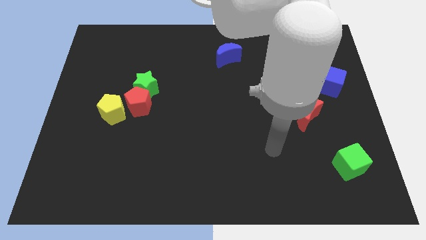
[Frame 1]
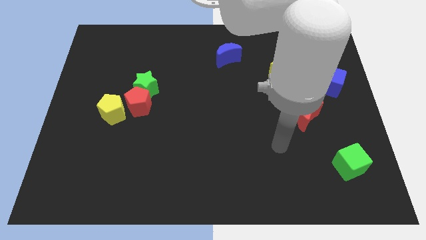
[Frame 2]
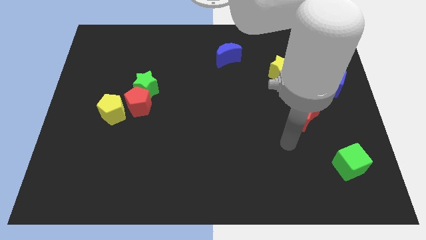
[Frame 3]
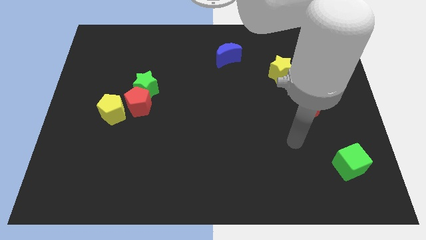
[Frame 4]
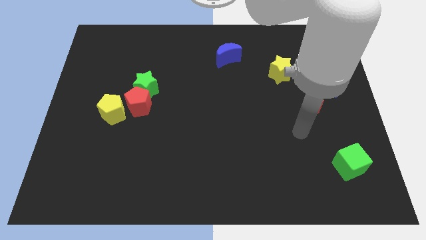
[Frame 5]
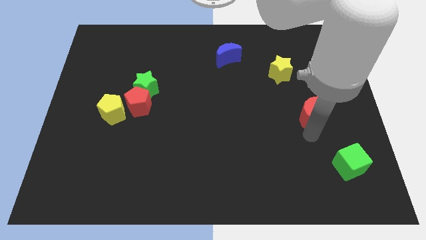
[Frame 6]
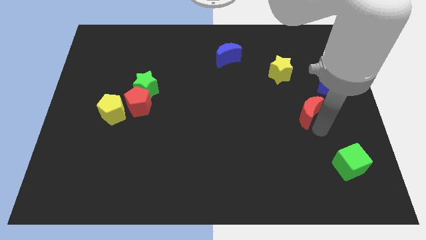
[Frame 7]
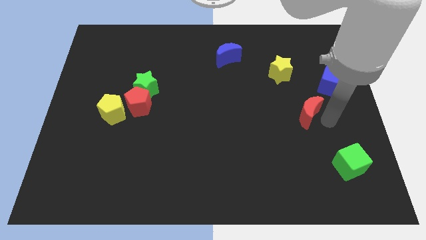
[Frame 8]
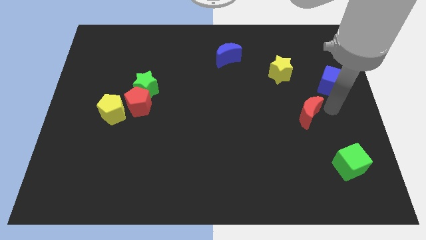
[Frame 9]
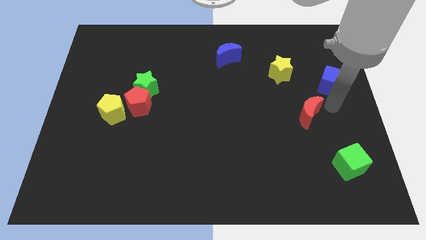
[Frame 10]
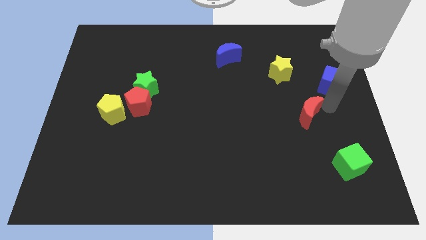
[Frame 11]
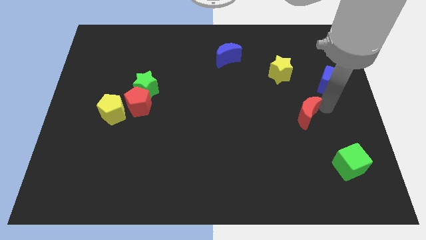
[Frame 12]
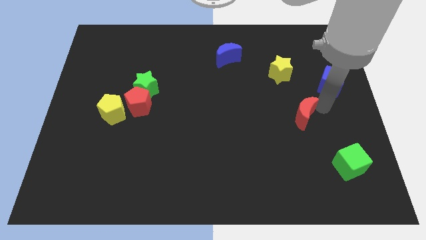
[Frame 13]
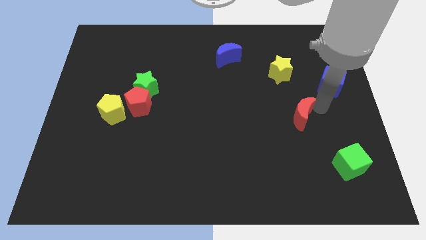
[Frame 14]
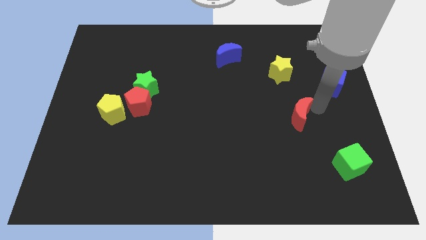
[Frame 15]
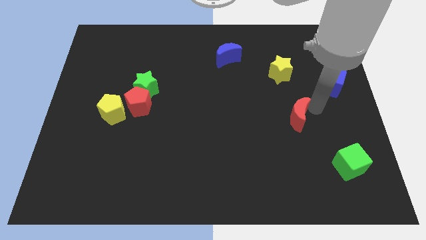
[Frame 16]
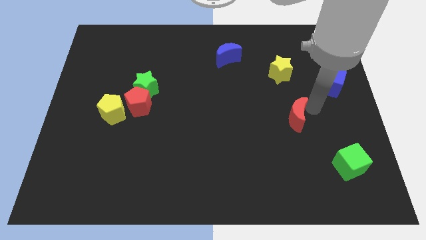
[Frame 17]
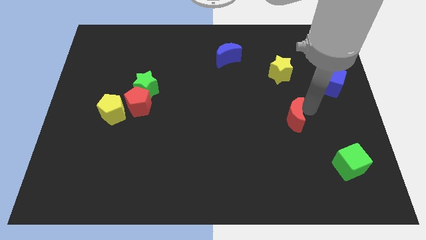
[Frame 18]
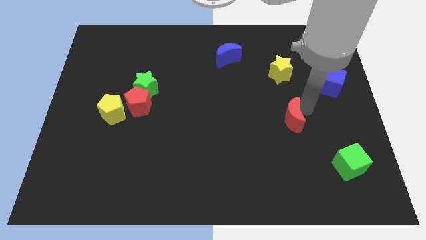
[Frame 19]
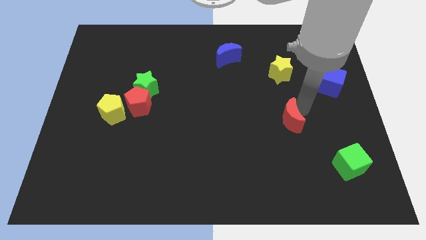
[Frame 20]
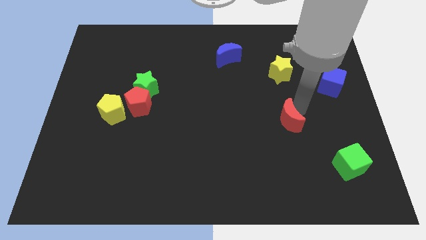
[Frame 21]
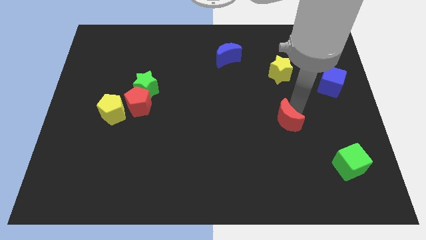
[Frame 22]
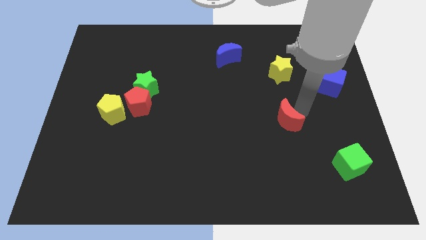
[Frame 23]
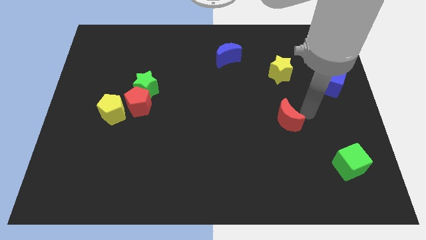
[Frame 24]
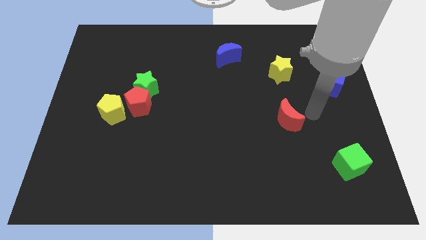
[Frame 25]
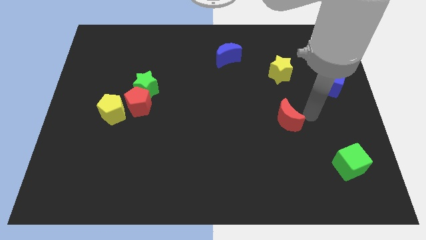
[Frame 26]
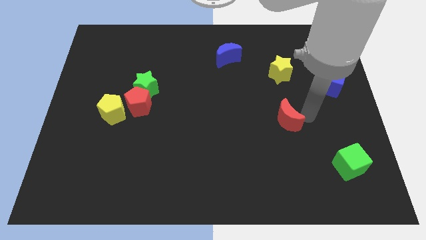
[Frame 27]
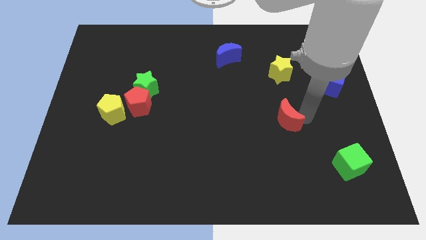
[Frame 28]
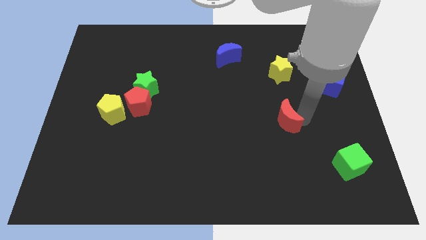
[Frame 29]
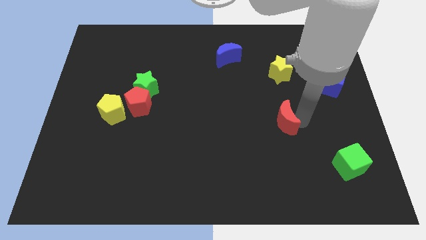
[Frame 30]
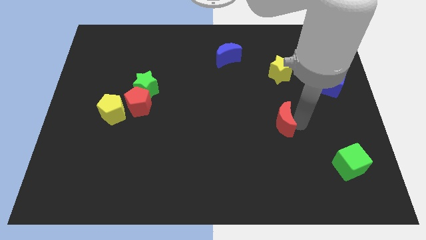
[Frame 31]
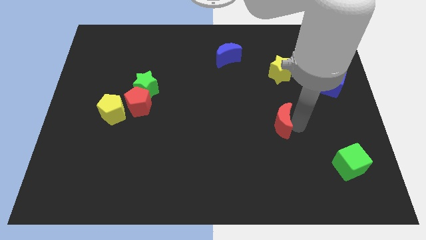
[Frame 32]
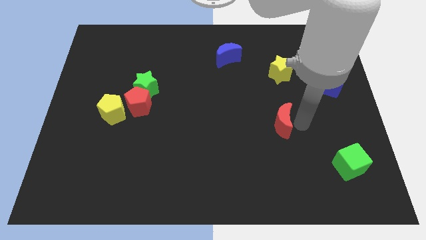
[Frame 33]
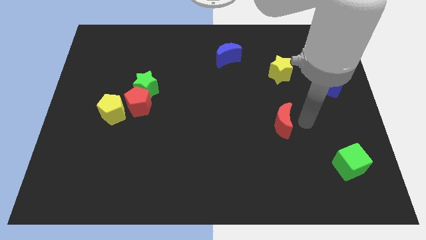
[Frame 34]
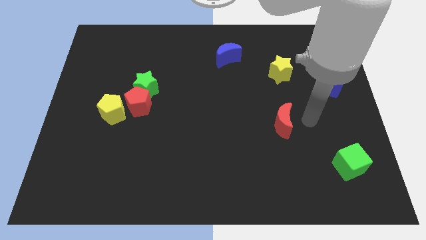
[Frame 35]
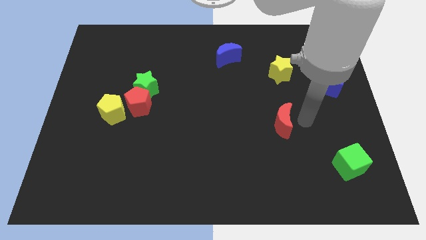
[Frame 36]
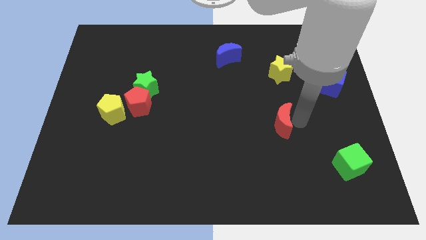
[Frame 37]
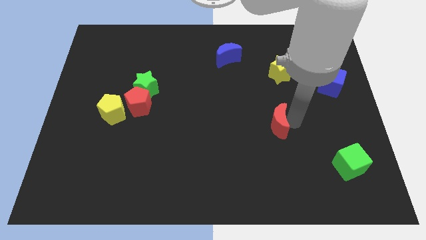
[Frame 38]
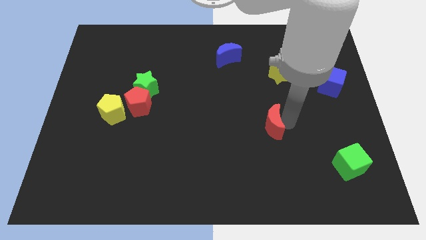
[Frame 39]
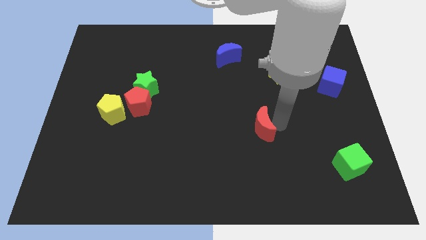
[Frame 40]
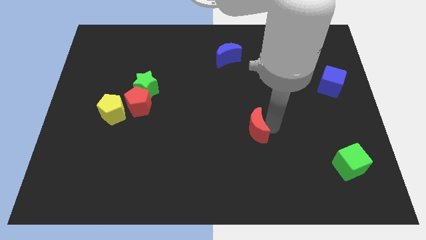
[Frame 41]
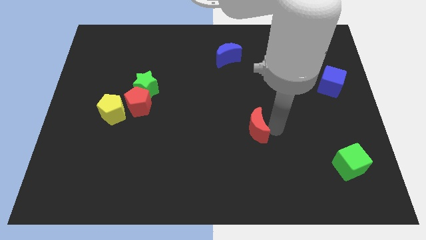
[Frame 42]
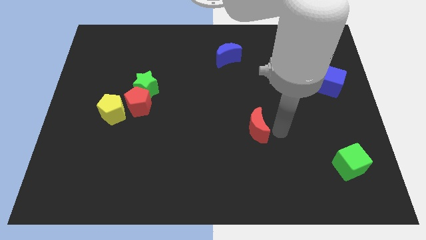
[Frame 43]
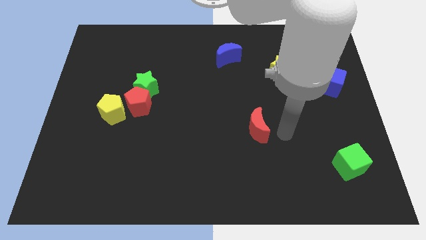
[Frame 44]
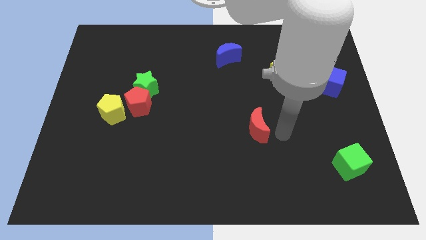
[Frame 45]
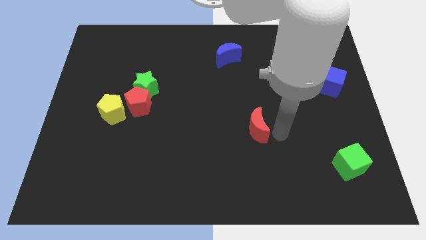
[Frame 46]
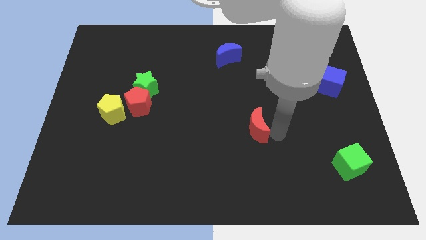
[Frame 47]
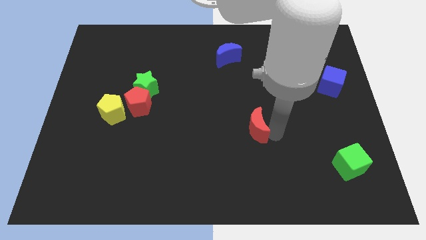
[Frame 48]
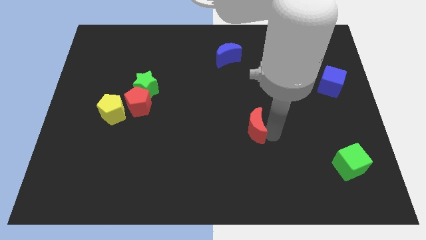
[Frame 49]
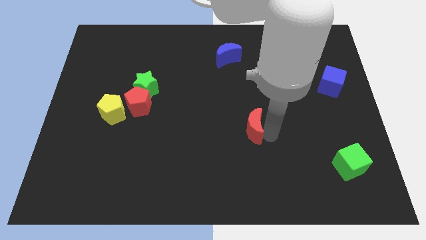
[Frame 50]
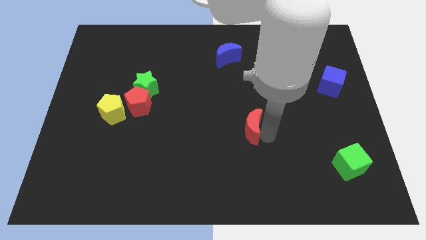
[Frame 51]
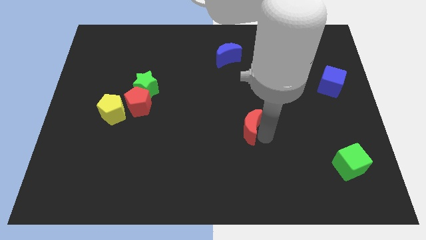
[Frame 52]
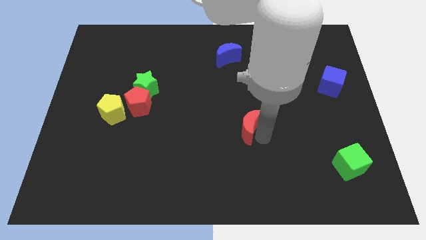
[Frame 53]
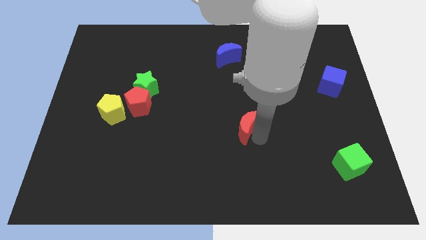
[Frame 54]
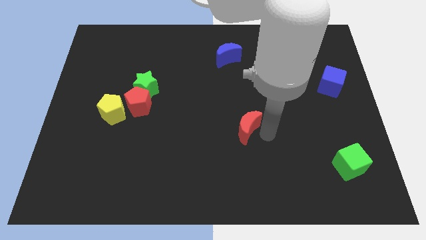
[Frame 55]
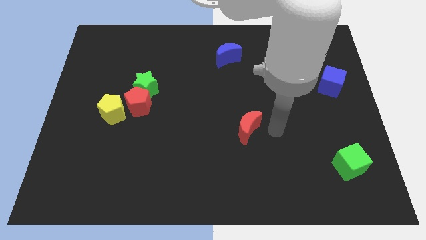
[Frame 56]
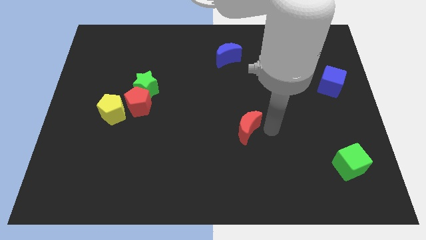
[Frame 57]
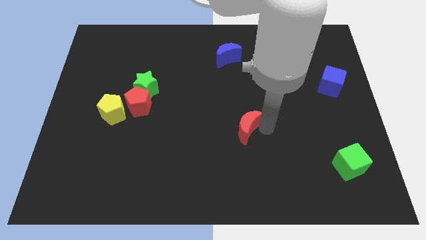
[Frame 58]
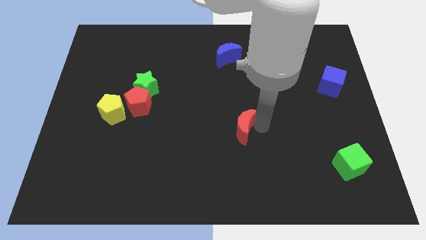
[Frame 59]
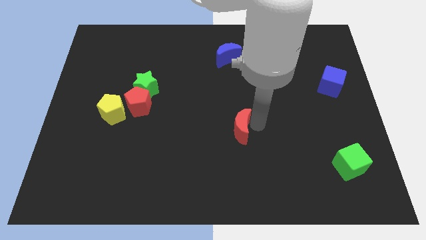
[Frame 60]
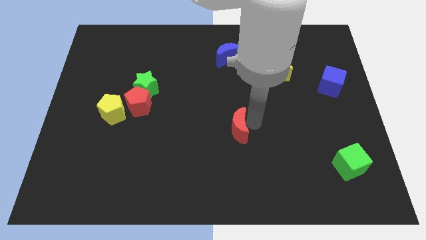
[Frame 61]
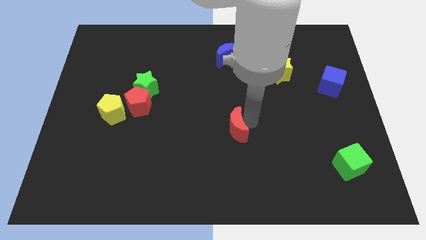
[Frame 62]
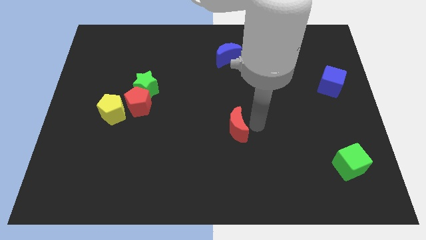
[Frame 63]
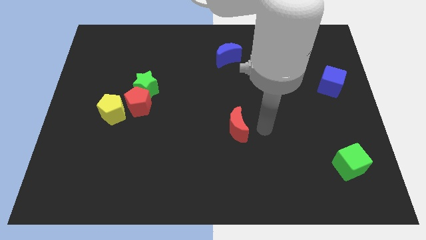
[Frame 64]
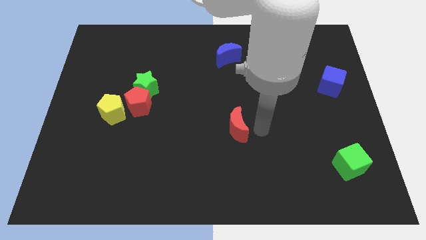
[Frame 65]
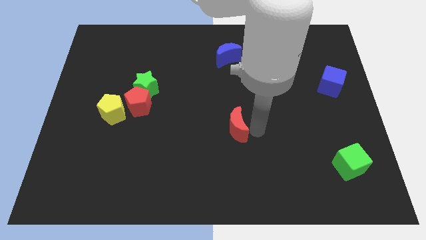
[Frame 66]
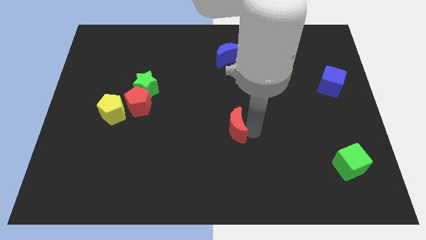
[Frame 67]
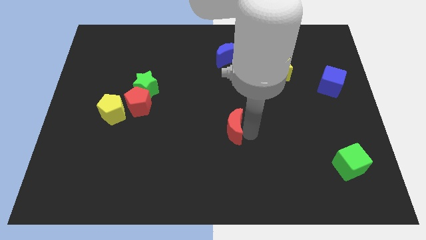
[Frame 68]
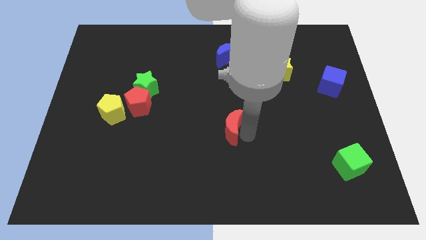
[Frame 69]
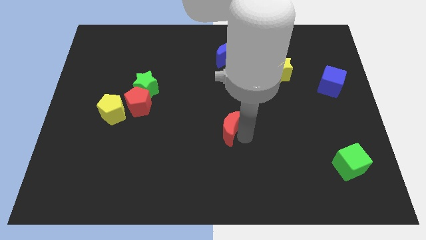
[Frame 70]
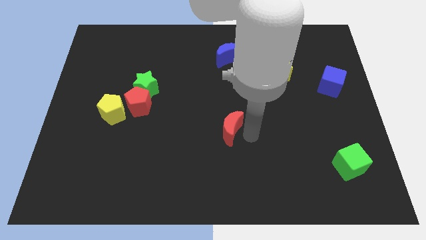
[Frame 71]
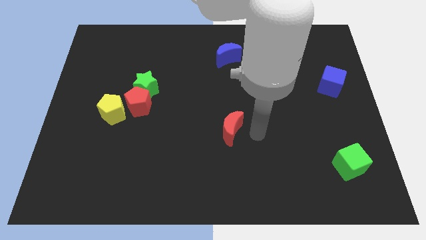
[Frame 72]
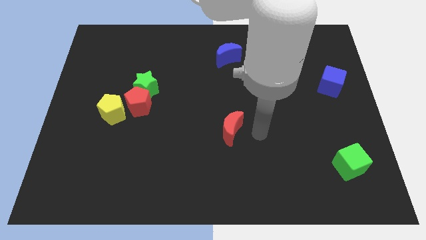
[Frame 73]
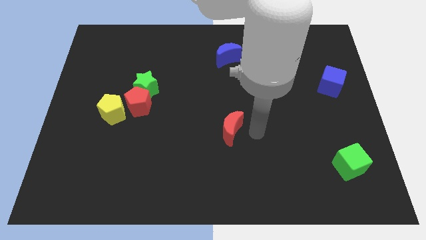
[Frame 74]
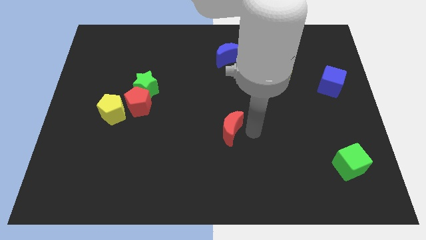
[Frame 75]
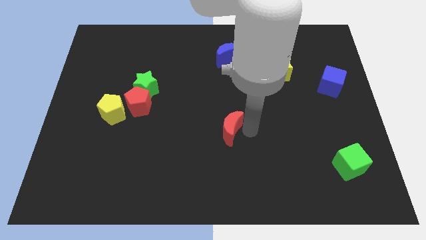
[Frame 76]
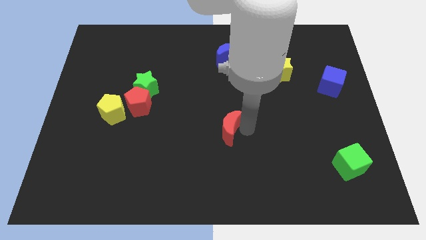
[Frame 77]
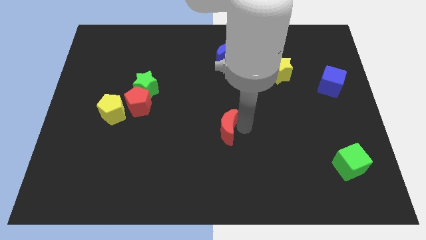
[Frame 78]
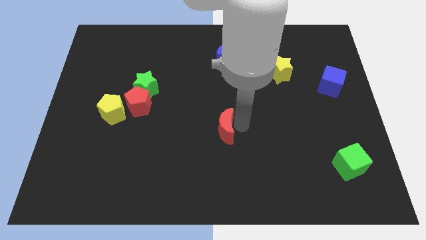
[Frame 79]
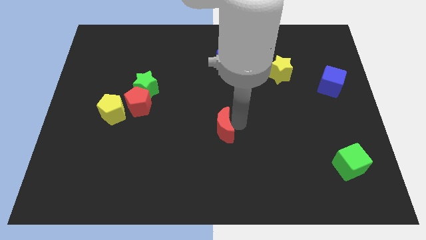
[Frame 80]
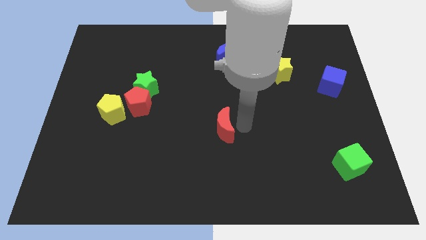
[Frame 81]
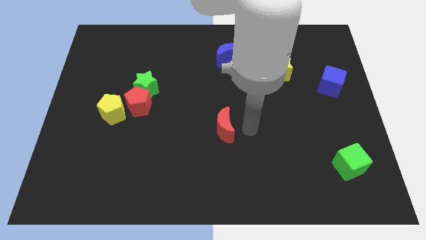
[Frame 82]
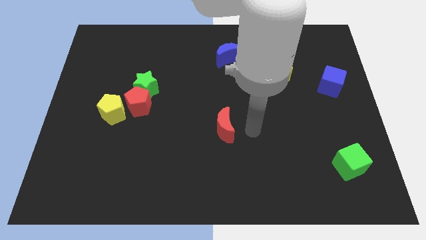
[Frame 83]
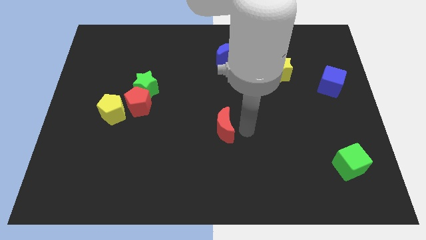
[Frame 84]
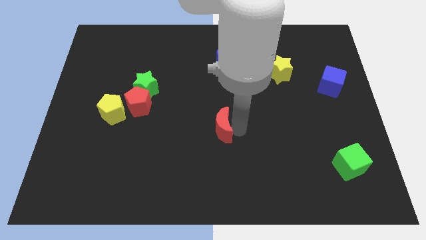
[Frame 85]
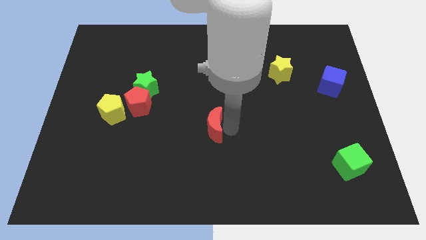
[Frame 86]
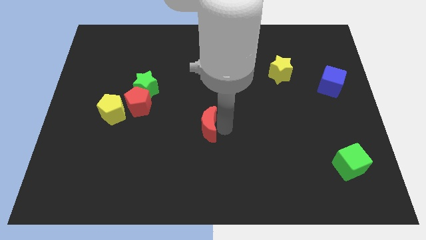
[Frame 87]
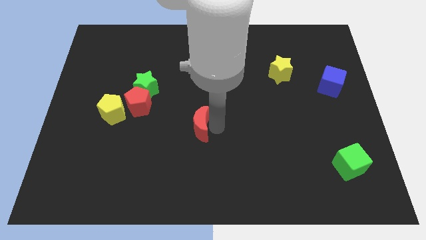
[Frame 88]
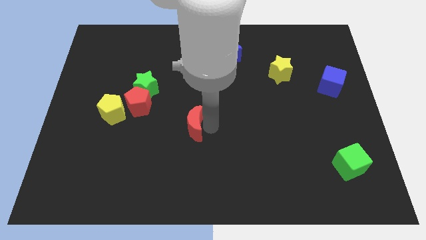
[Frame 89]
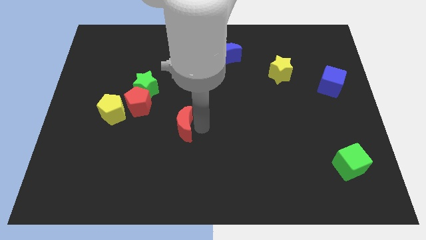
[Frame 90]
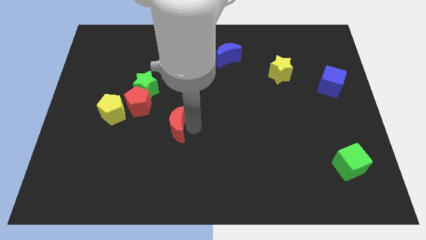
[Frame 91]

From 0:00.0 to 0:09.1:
move the red moon to the bottom right side of the red pentagon
